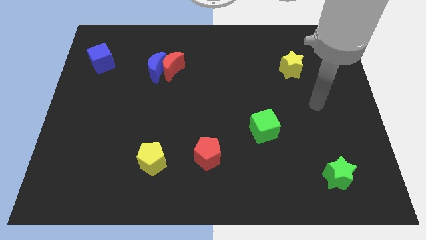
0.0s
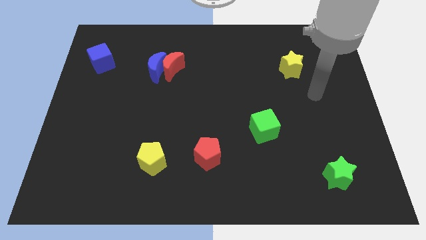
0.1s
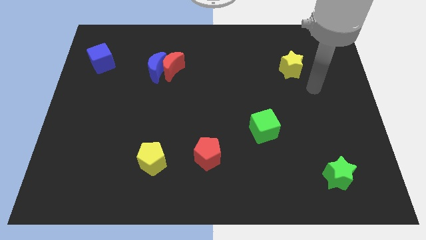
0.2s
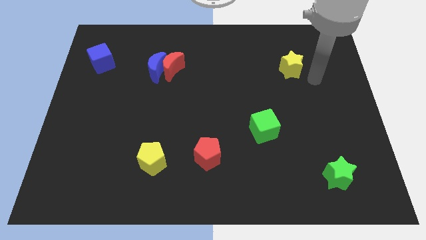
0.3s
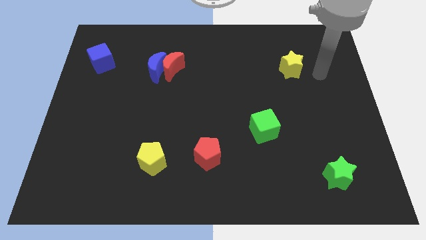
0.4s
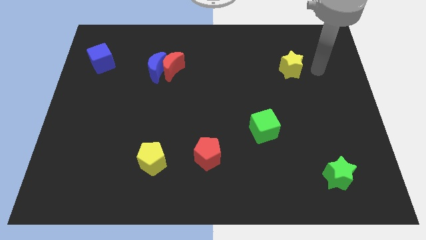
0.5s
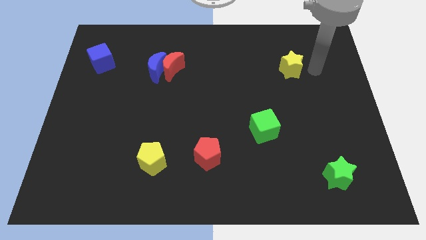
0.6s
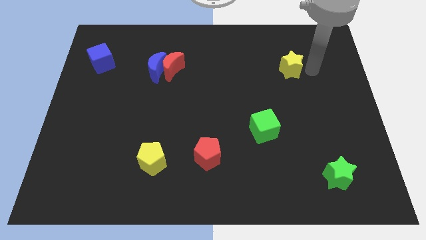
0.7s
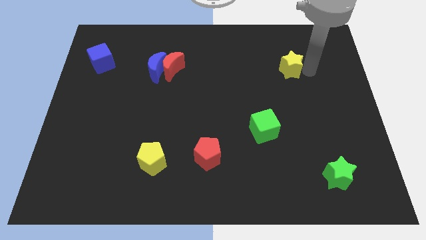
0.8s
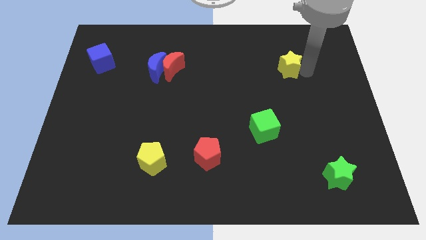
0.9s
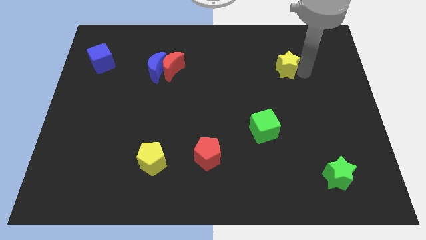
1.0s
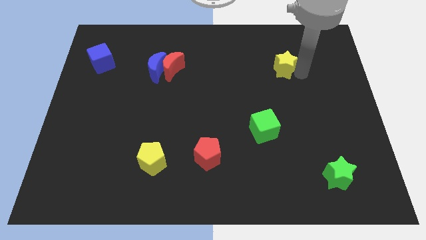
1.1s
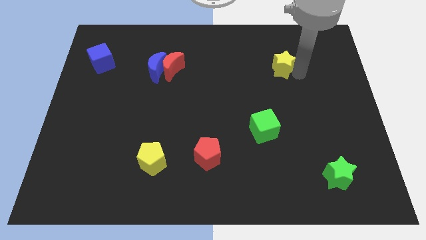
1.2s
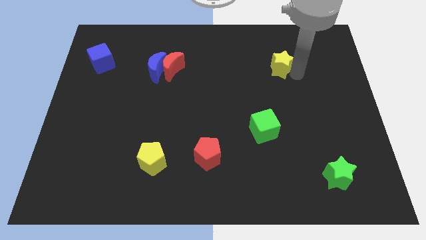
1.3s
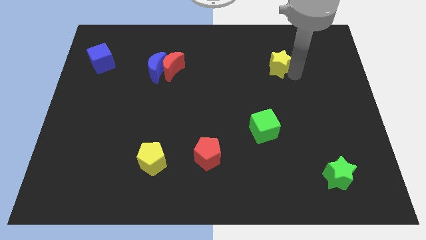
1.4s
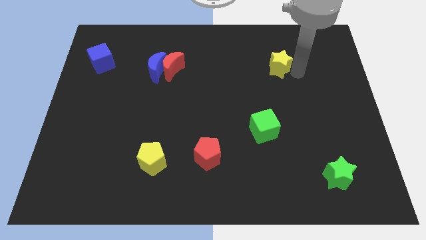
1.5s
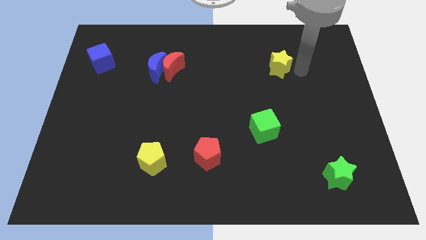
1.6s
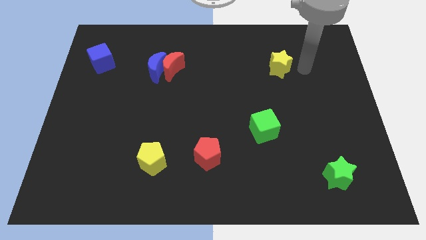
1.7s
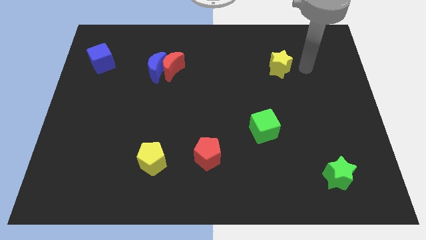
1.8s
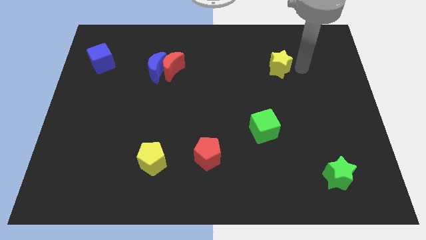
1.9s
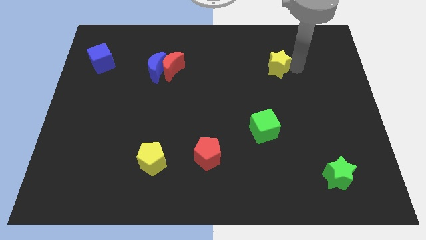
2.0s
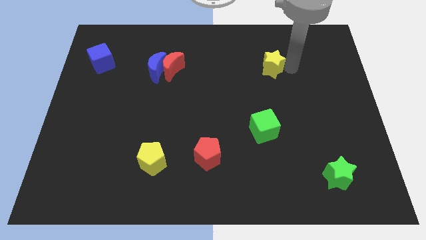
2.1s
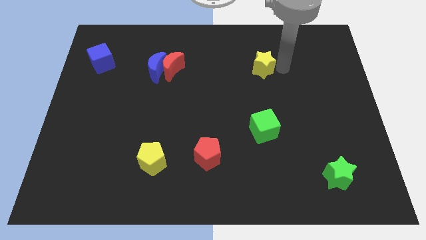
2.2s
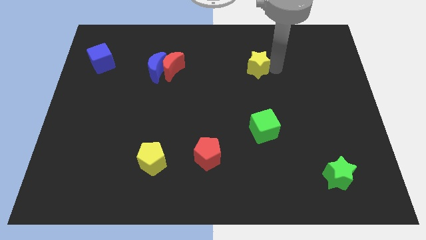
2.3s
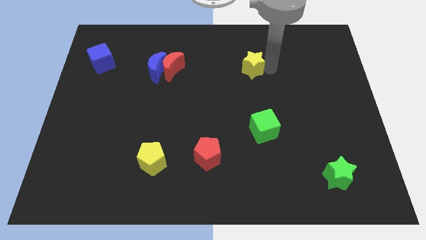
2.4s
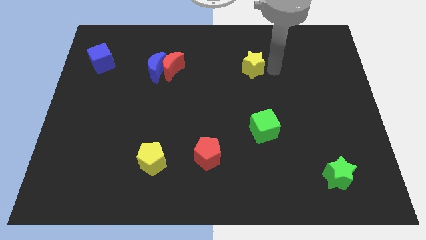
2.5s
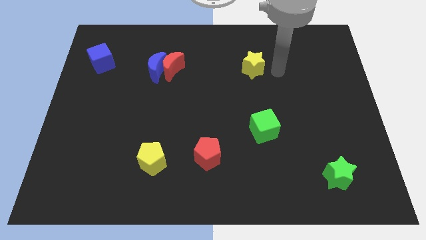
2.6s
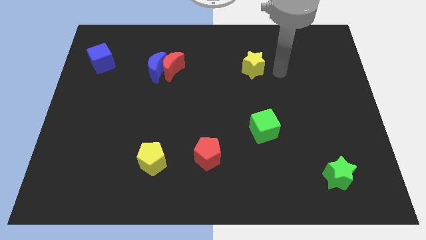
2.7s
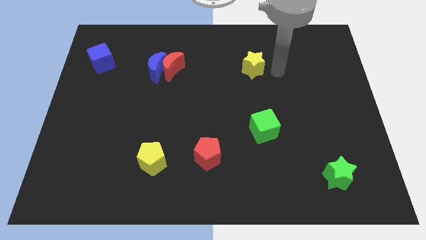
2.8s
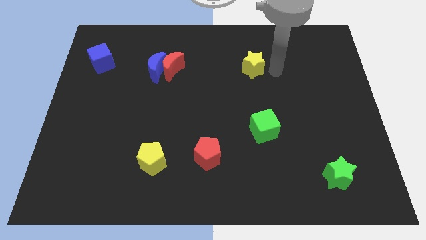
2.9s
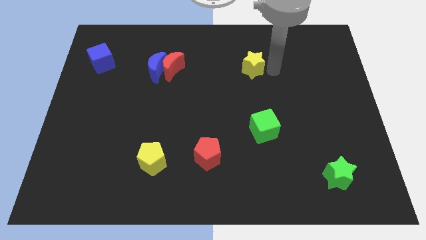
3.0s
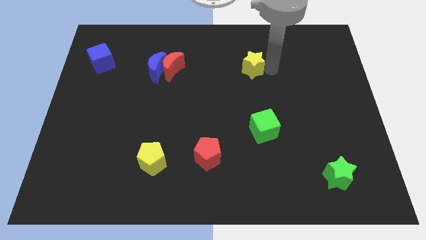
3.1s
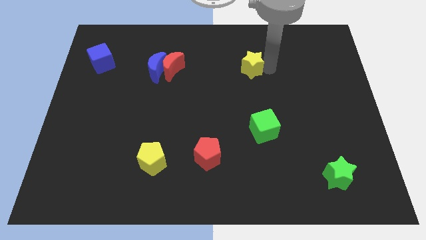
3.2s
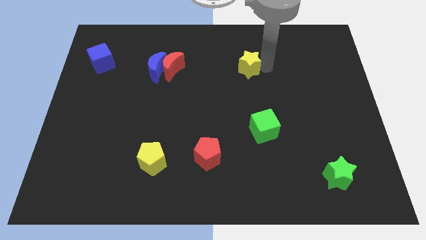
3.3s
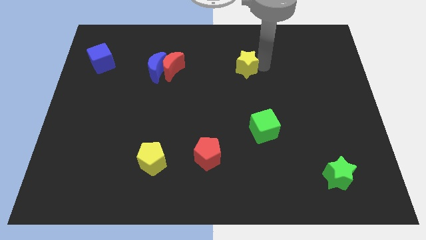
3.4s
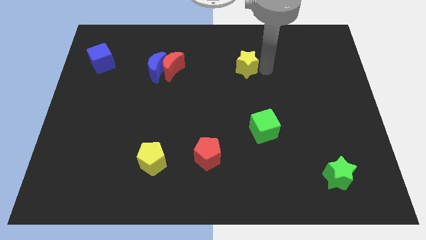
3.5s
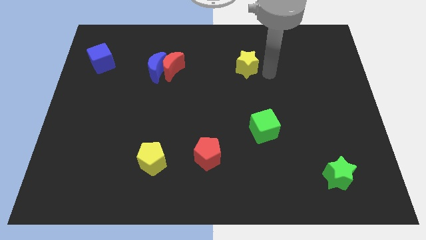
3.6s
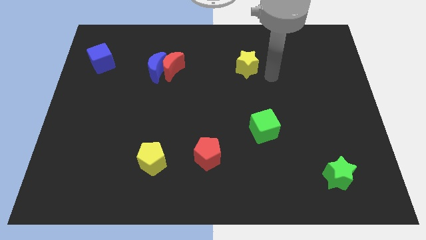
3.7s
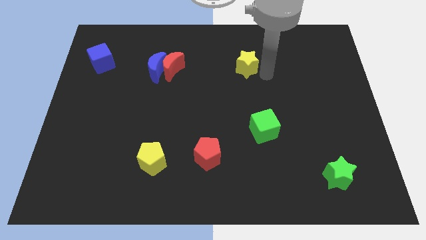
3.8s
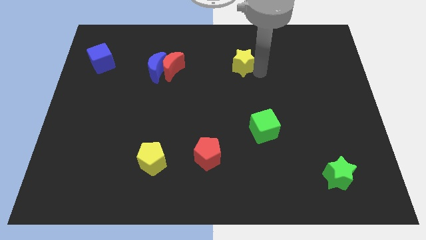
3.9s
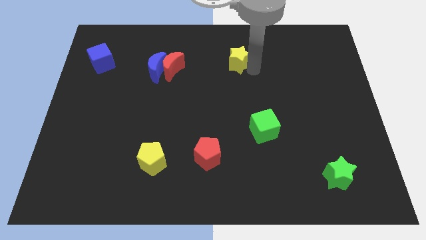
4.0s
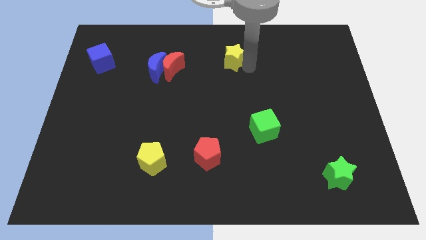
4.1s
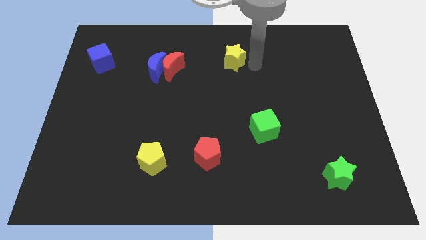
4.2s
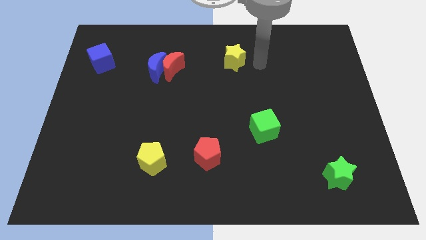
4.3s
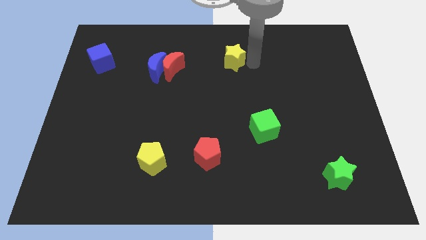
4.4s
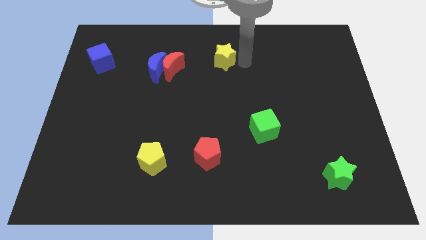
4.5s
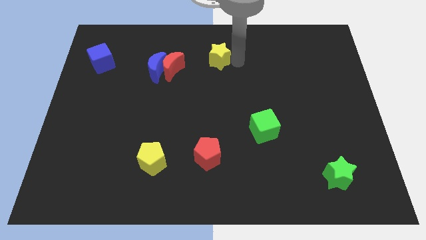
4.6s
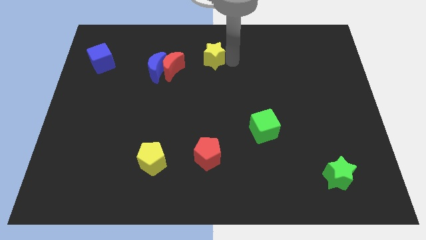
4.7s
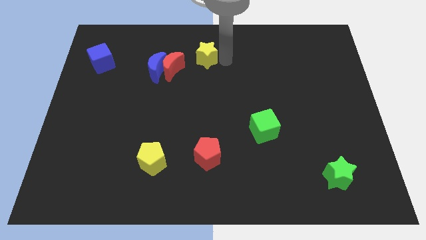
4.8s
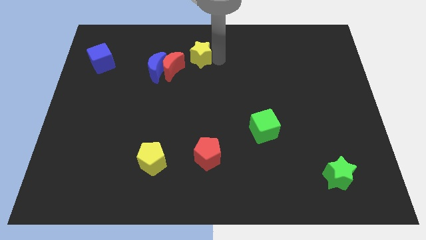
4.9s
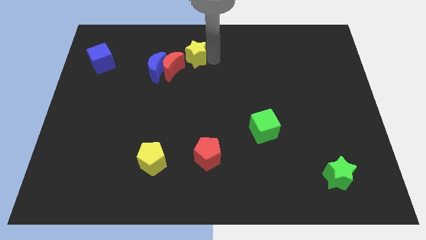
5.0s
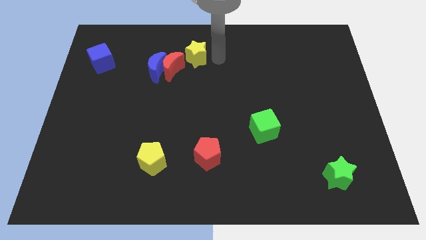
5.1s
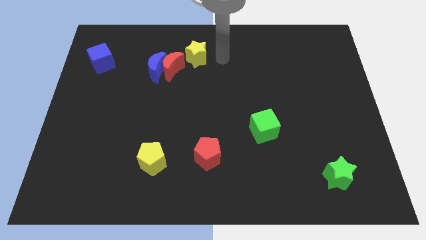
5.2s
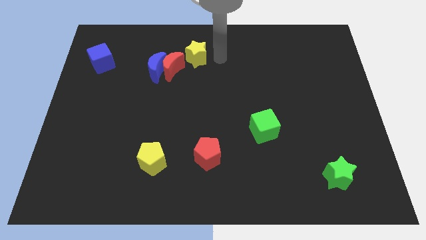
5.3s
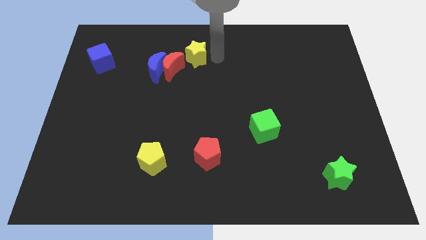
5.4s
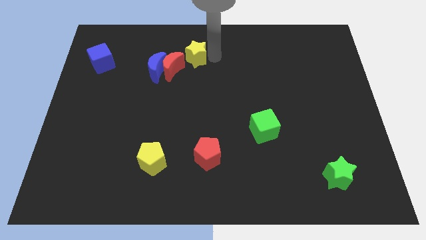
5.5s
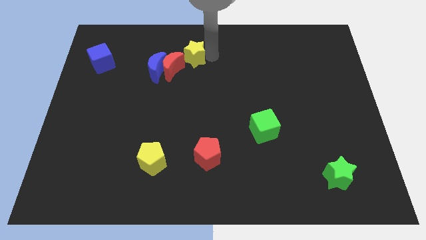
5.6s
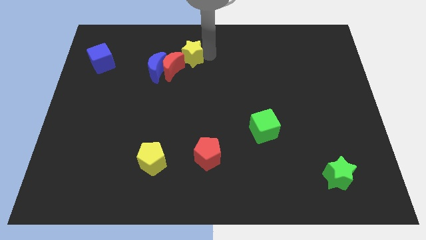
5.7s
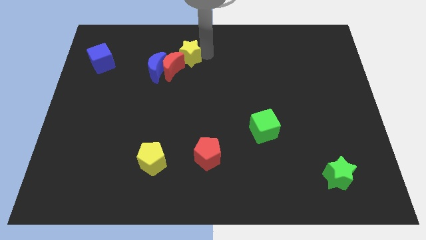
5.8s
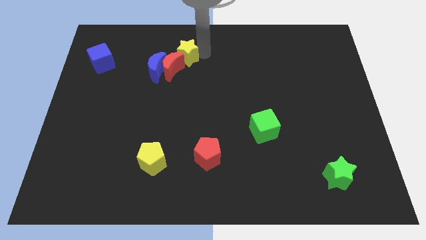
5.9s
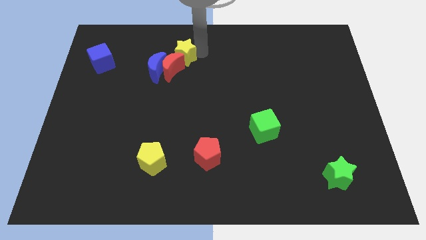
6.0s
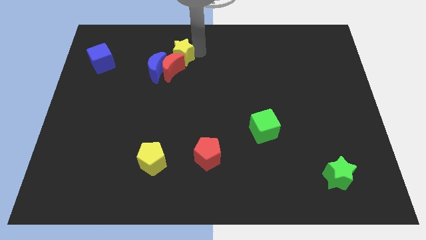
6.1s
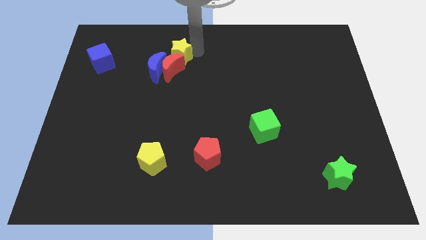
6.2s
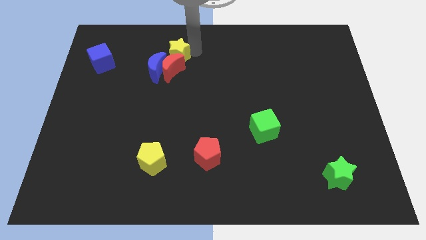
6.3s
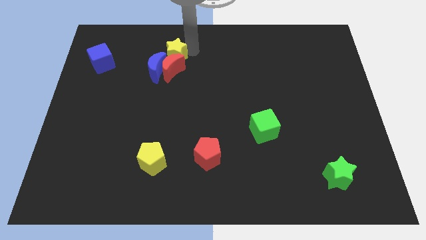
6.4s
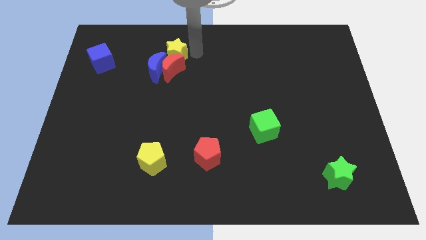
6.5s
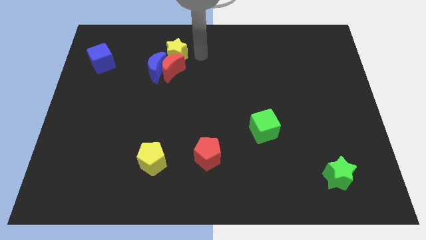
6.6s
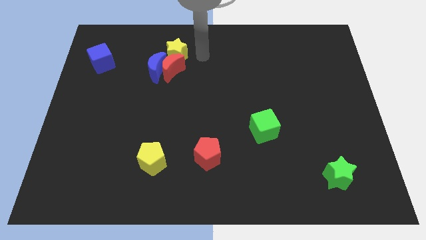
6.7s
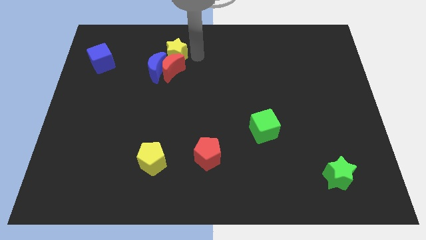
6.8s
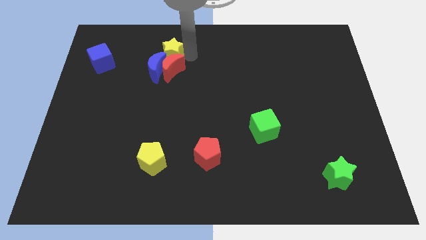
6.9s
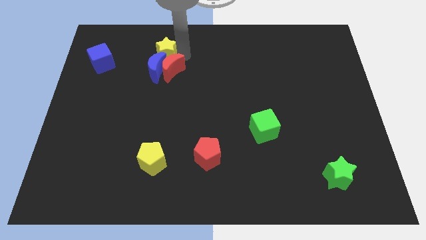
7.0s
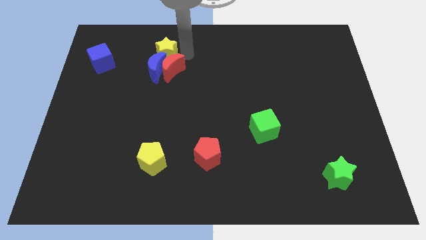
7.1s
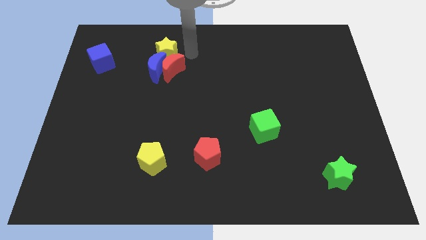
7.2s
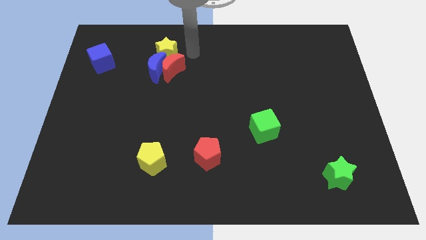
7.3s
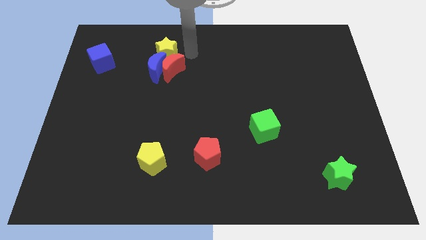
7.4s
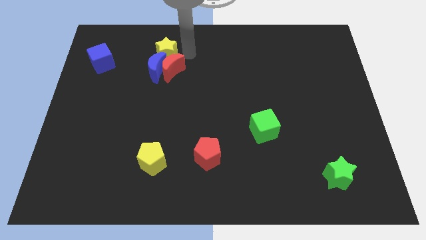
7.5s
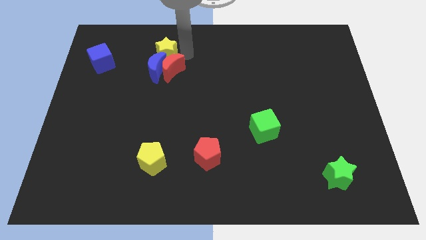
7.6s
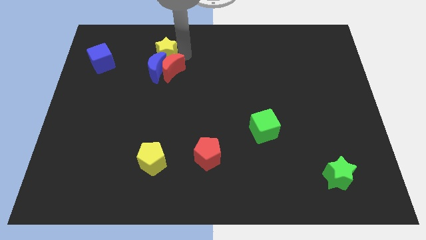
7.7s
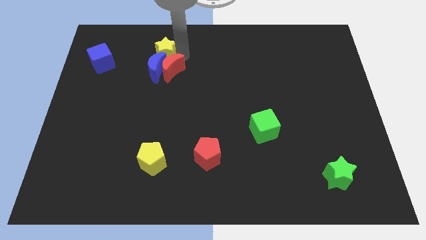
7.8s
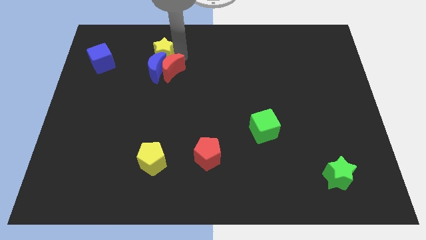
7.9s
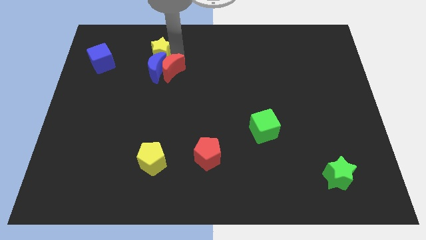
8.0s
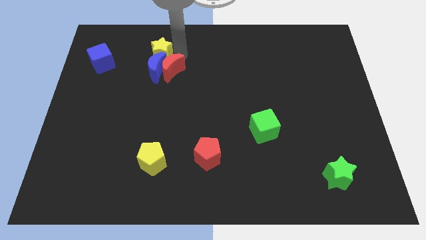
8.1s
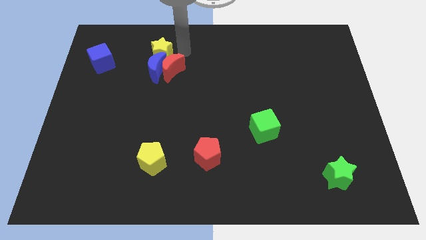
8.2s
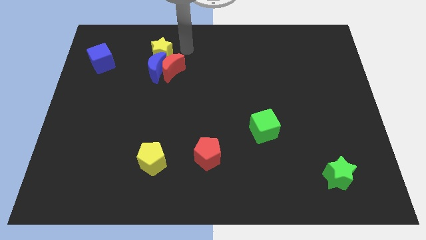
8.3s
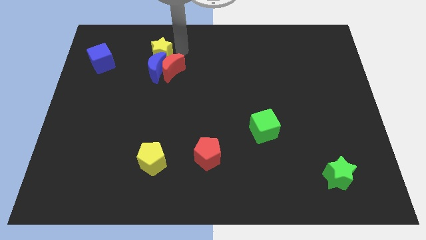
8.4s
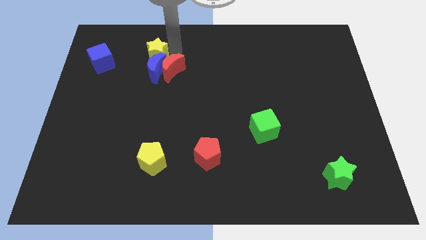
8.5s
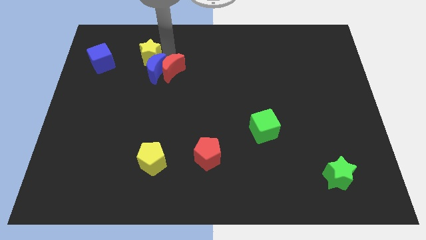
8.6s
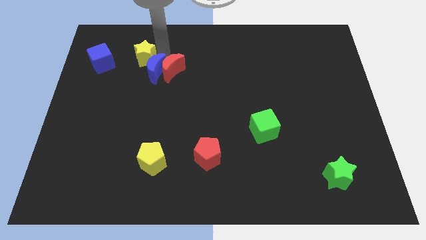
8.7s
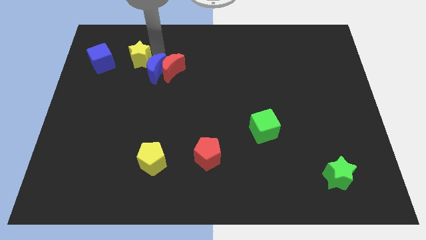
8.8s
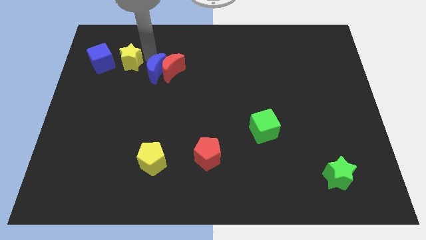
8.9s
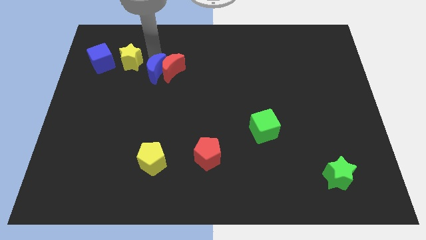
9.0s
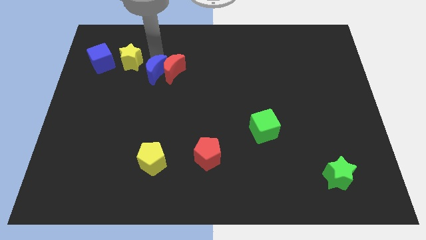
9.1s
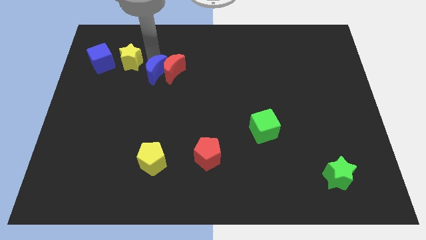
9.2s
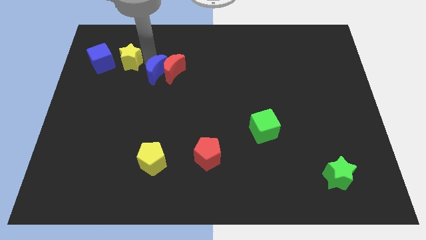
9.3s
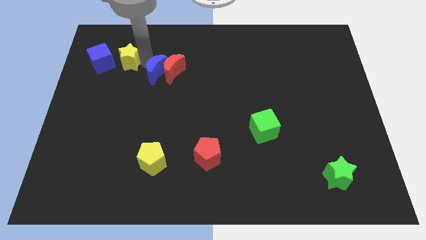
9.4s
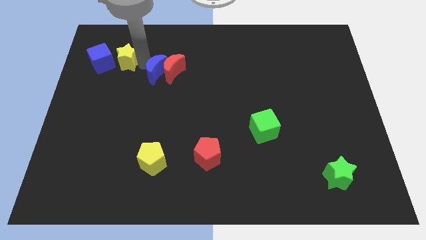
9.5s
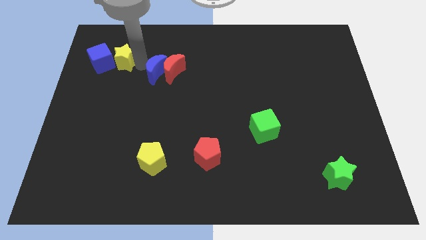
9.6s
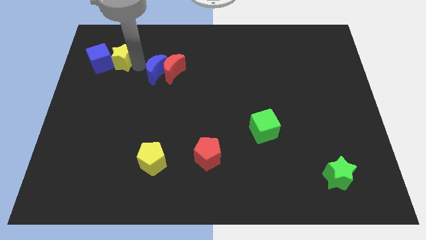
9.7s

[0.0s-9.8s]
move the yellow star to the blue cube
